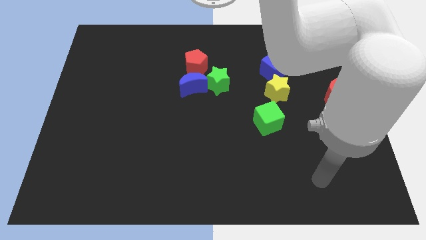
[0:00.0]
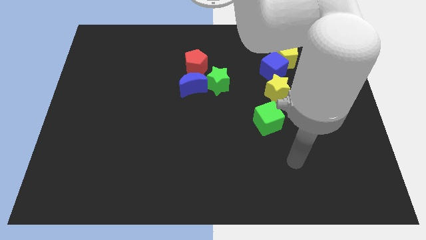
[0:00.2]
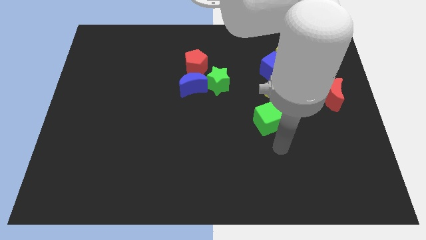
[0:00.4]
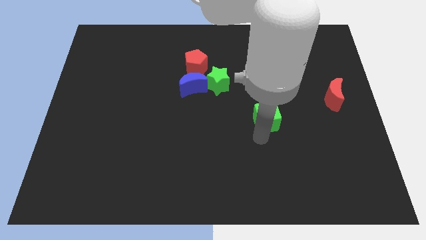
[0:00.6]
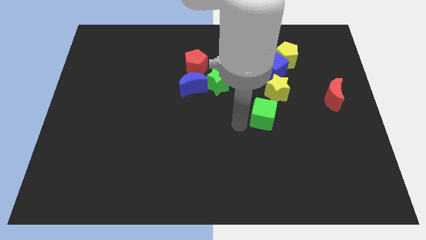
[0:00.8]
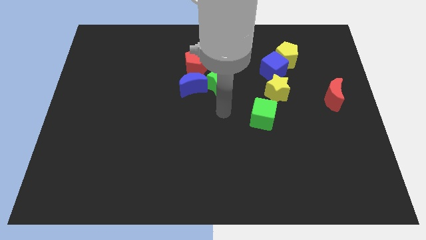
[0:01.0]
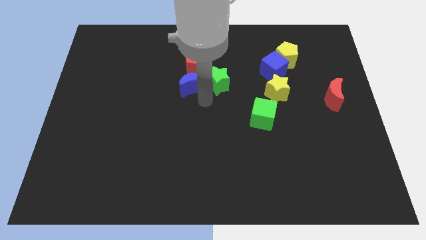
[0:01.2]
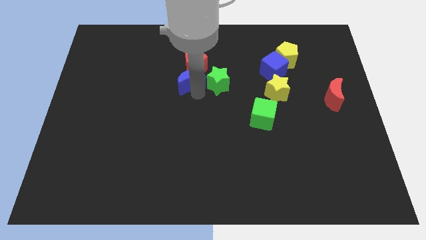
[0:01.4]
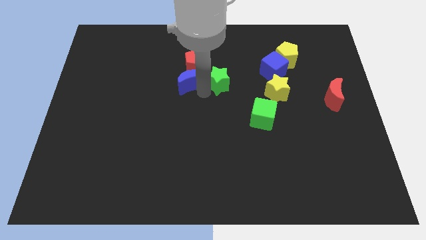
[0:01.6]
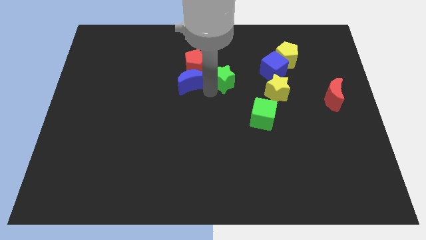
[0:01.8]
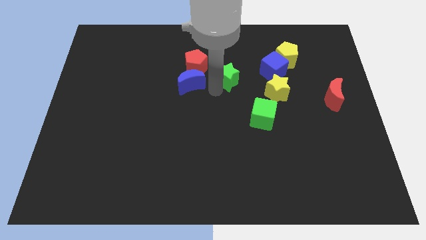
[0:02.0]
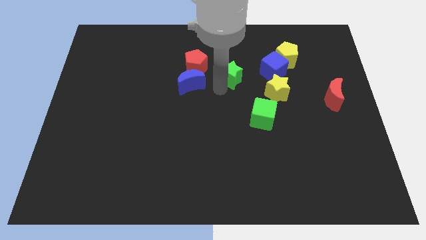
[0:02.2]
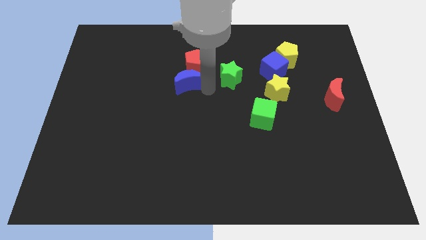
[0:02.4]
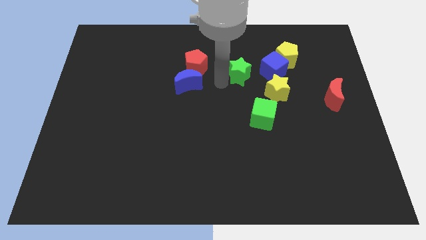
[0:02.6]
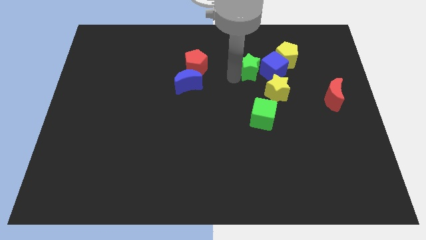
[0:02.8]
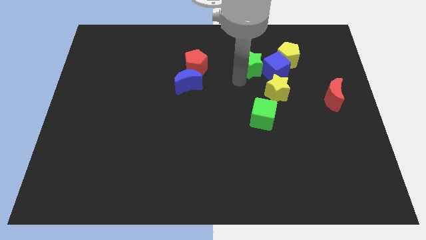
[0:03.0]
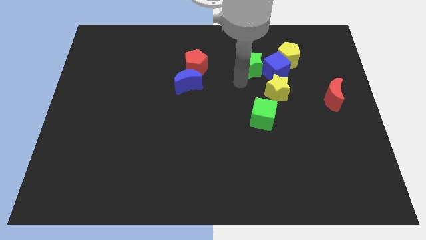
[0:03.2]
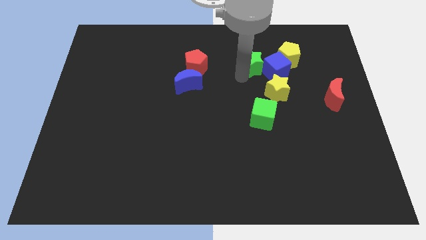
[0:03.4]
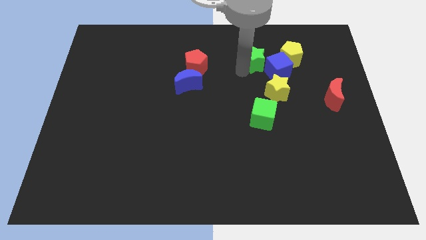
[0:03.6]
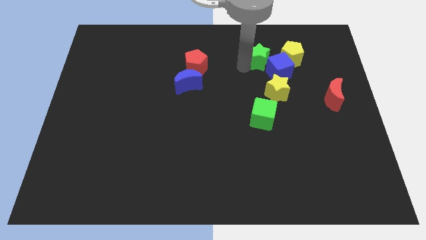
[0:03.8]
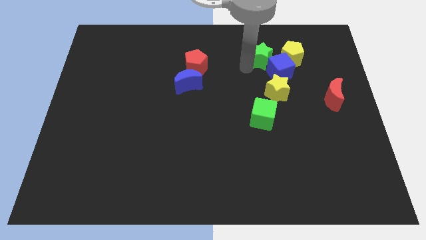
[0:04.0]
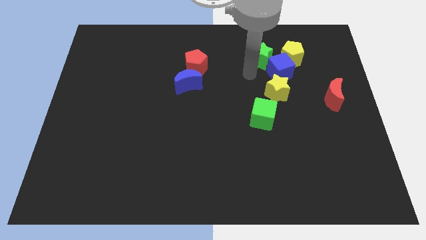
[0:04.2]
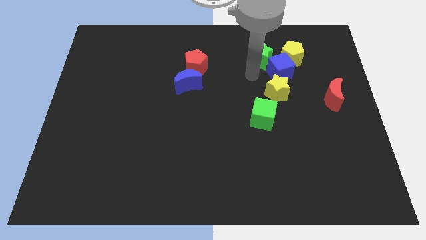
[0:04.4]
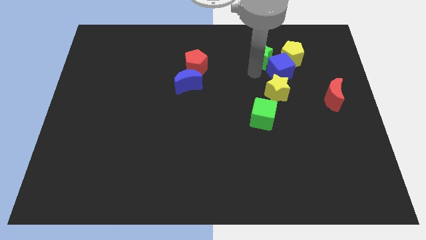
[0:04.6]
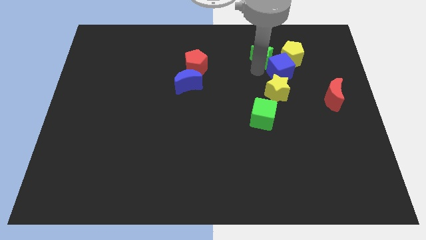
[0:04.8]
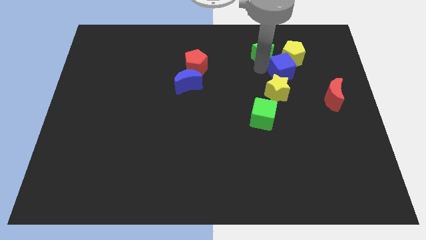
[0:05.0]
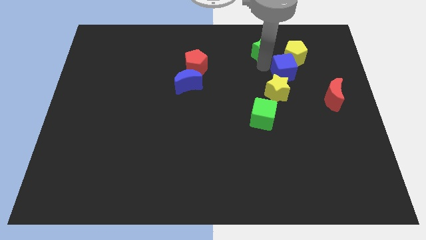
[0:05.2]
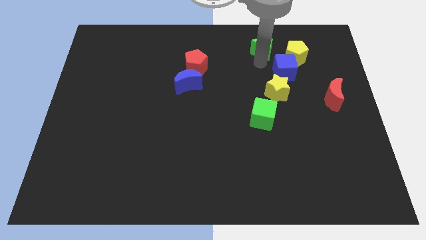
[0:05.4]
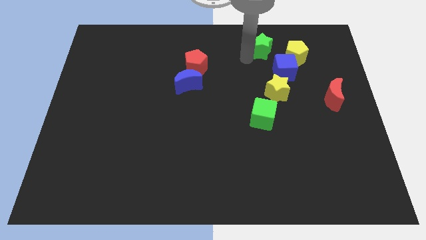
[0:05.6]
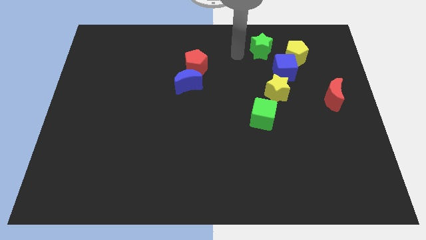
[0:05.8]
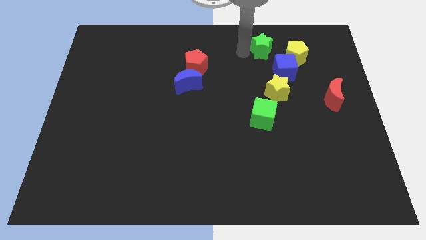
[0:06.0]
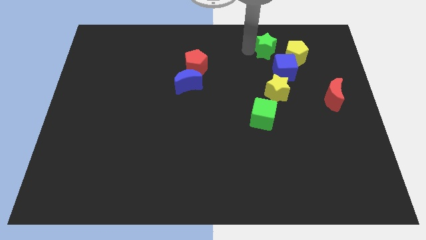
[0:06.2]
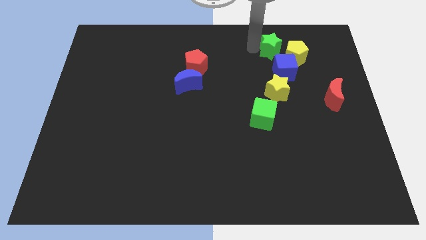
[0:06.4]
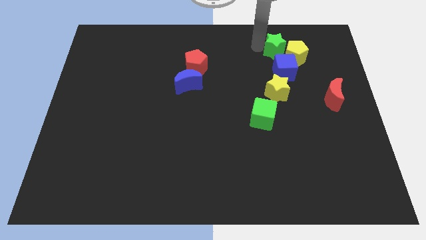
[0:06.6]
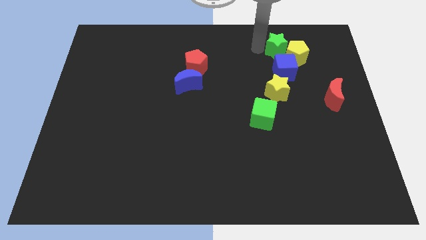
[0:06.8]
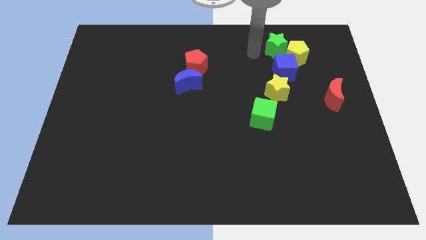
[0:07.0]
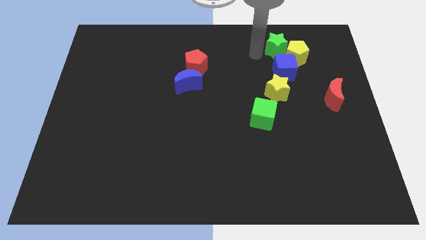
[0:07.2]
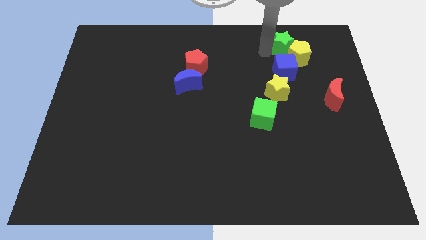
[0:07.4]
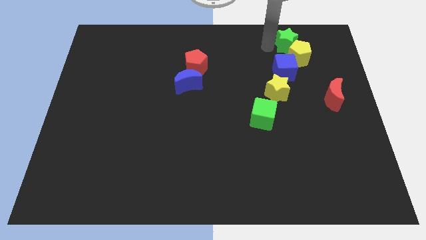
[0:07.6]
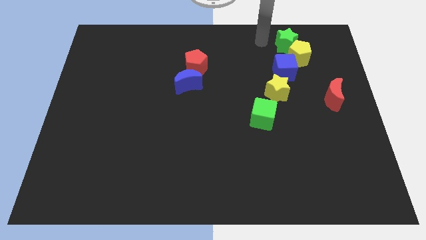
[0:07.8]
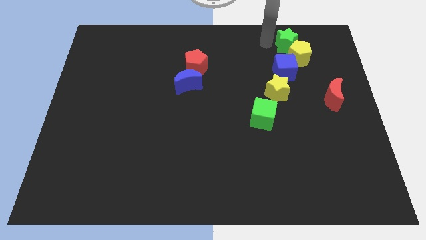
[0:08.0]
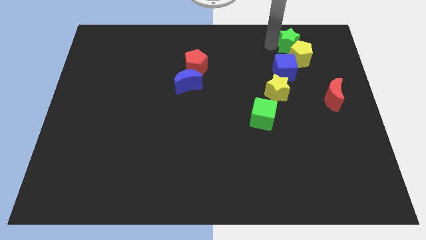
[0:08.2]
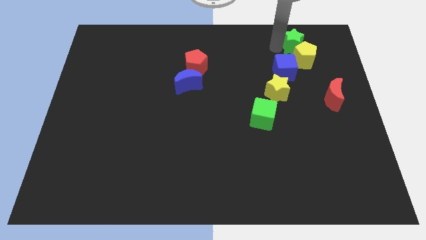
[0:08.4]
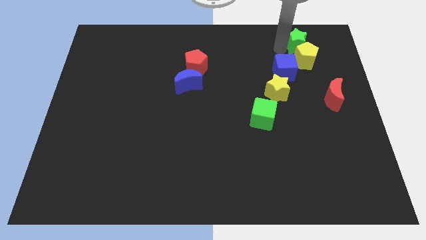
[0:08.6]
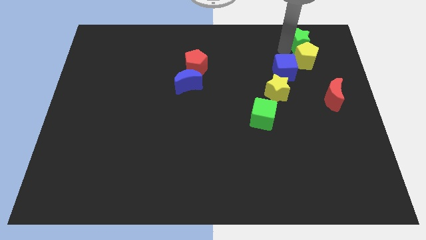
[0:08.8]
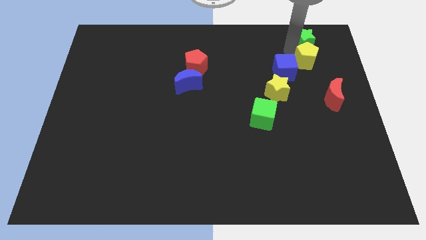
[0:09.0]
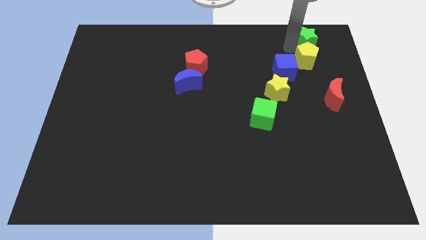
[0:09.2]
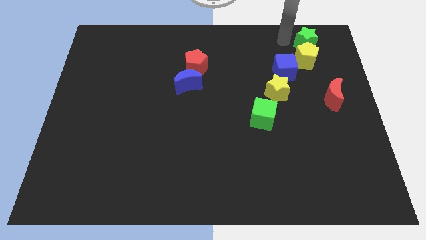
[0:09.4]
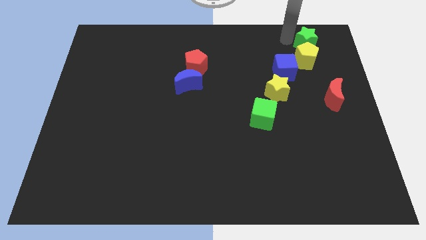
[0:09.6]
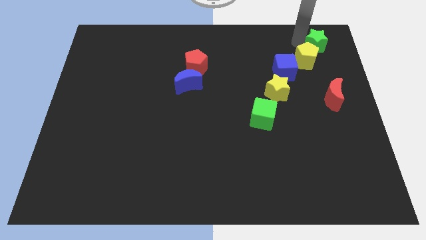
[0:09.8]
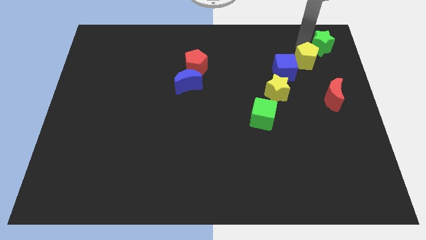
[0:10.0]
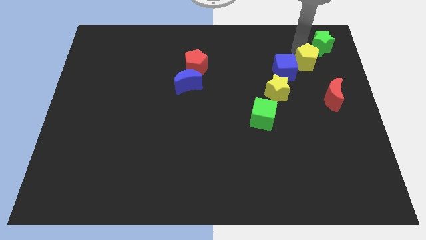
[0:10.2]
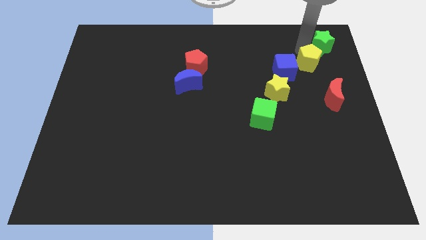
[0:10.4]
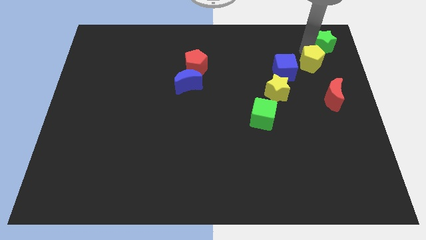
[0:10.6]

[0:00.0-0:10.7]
put the green star to the top right corner
